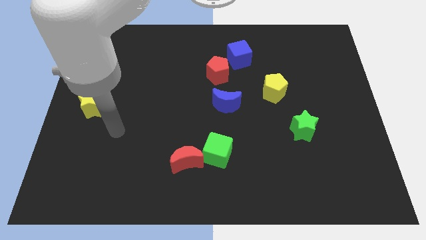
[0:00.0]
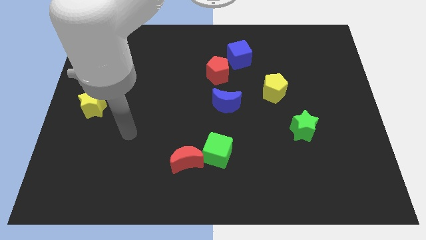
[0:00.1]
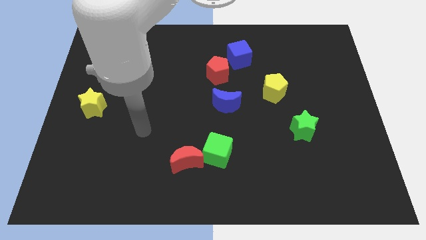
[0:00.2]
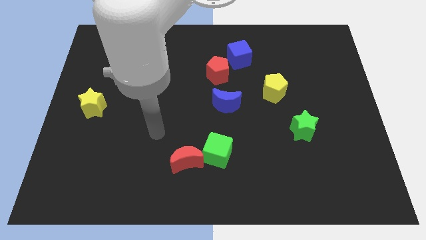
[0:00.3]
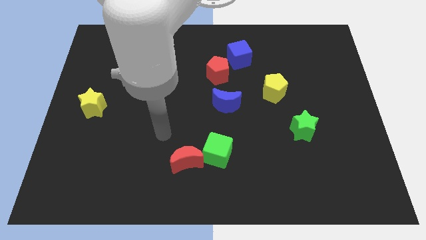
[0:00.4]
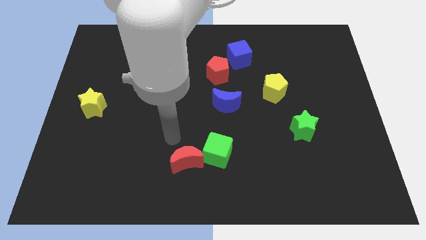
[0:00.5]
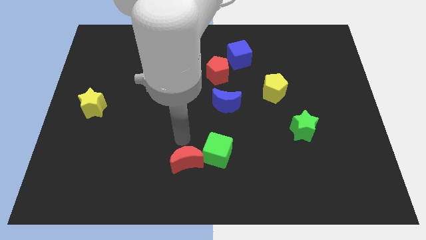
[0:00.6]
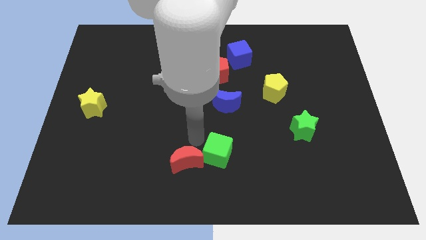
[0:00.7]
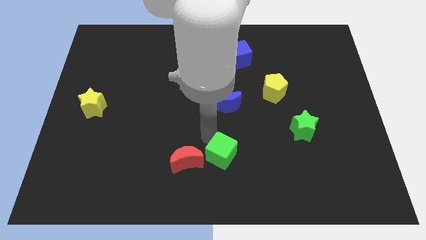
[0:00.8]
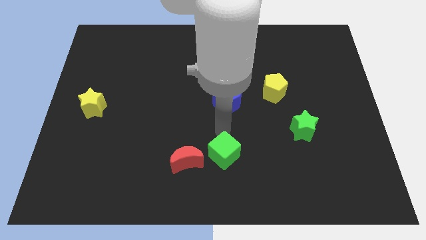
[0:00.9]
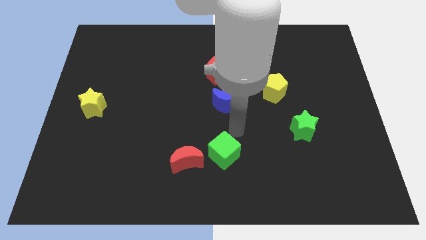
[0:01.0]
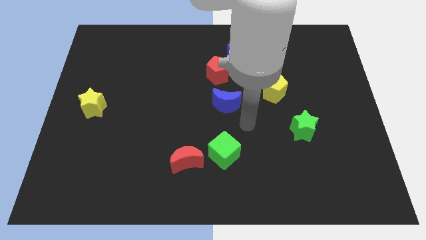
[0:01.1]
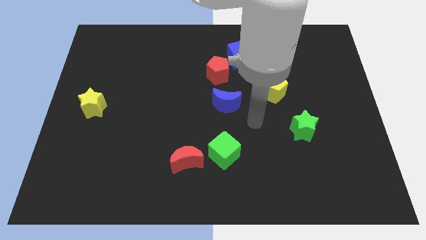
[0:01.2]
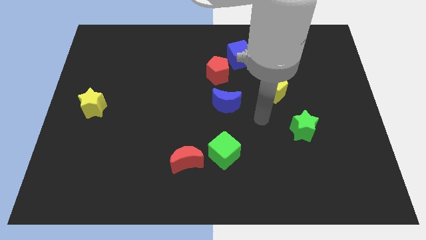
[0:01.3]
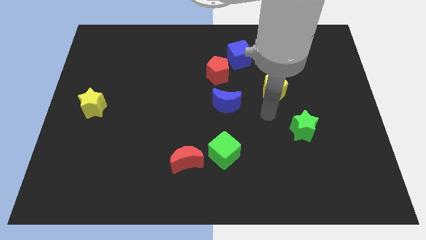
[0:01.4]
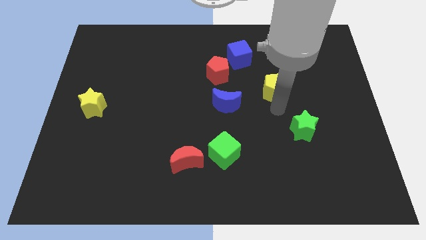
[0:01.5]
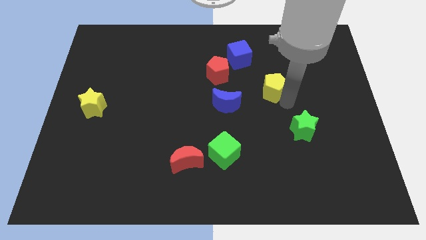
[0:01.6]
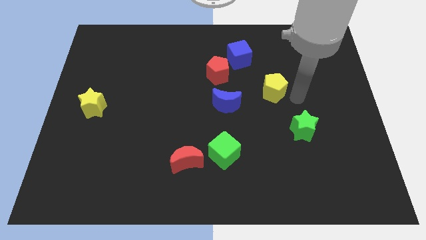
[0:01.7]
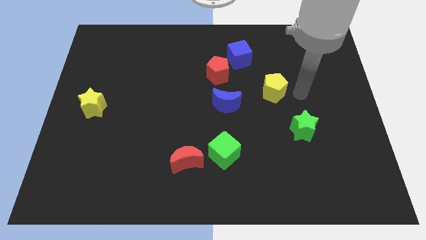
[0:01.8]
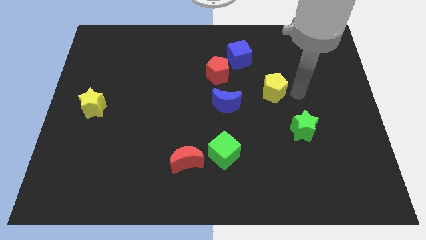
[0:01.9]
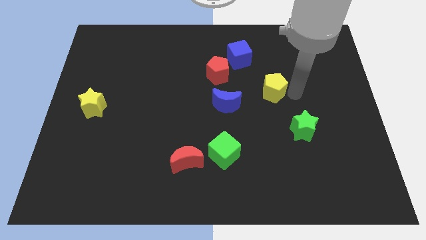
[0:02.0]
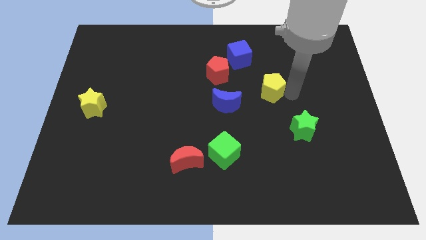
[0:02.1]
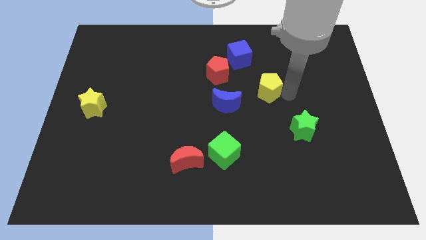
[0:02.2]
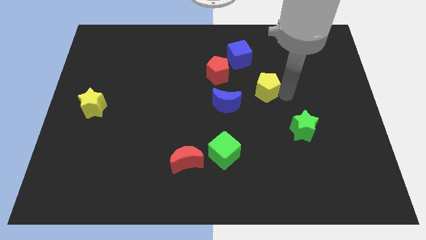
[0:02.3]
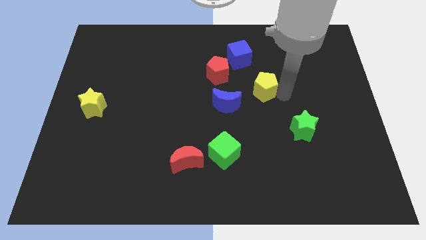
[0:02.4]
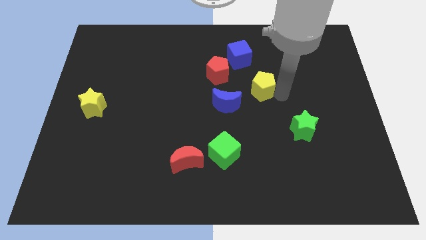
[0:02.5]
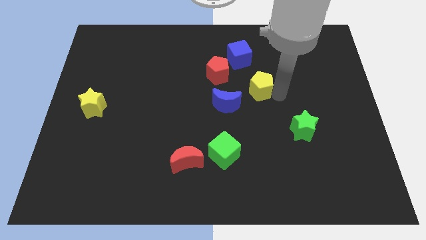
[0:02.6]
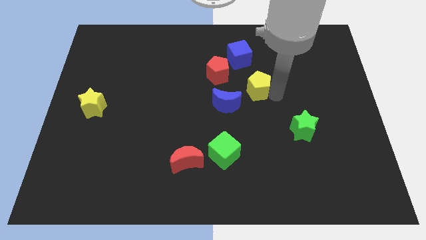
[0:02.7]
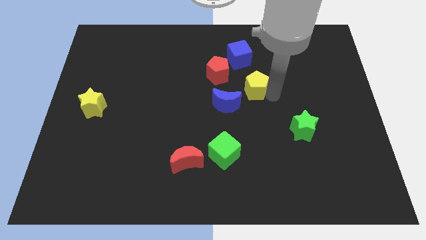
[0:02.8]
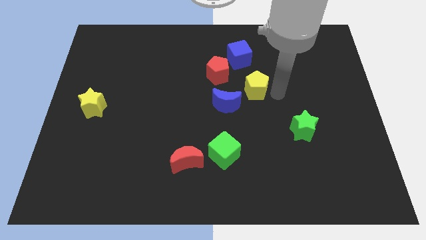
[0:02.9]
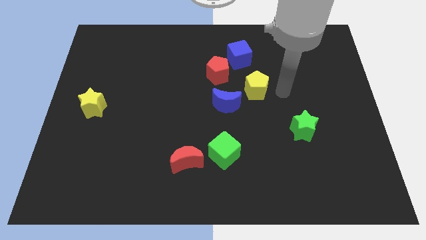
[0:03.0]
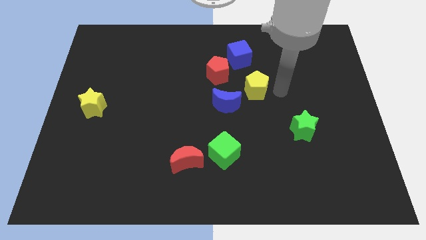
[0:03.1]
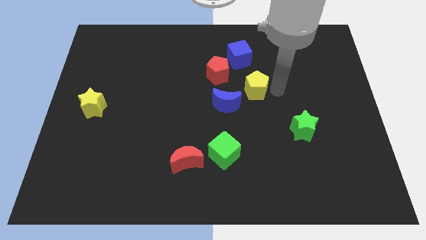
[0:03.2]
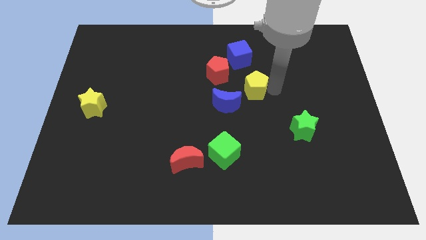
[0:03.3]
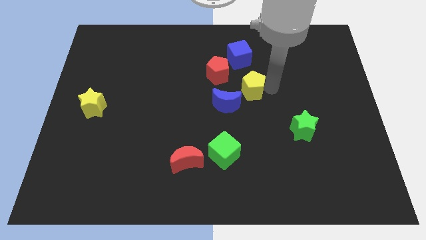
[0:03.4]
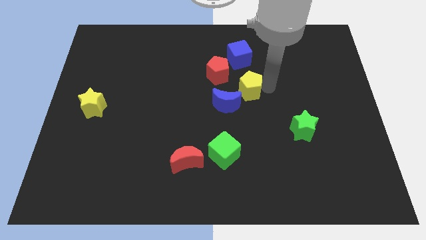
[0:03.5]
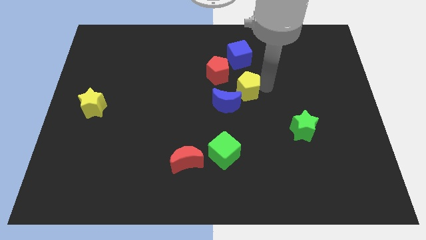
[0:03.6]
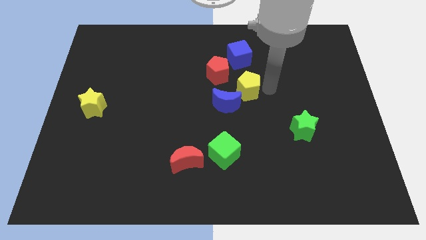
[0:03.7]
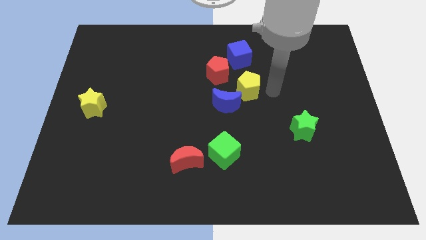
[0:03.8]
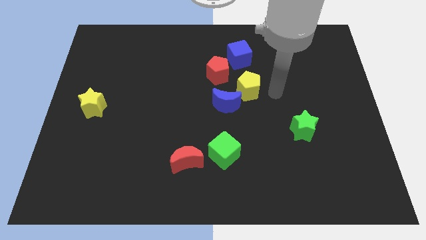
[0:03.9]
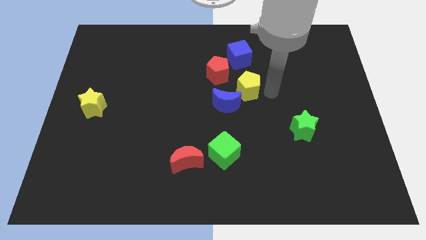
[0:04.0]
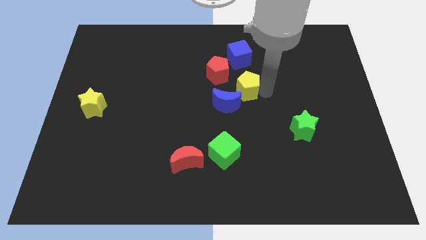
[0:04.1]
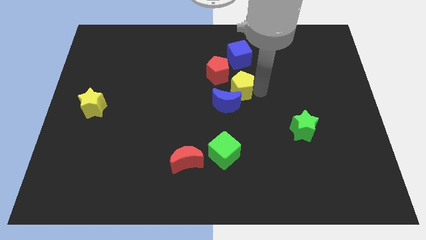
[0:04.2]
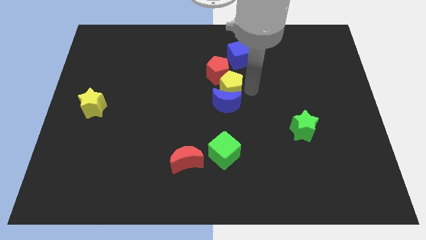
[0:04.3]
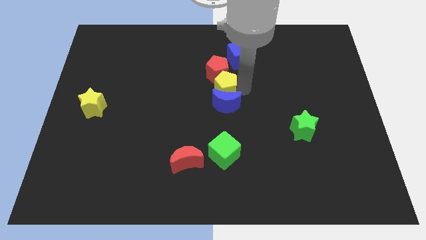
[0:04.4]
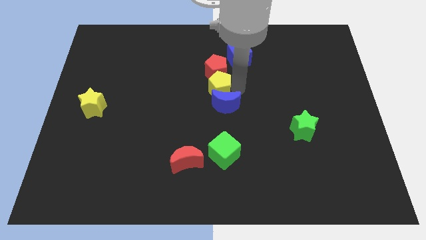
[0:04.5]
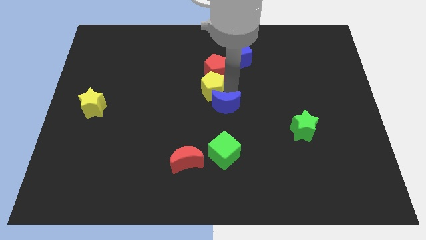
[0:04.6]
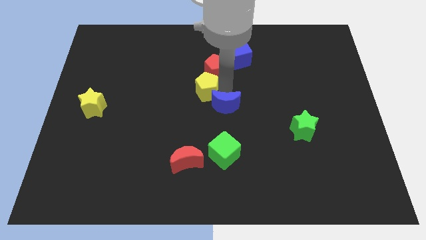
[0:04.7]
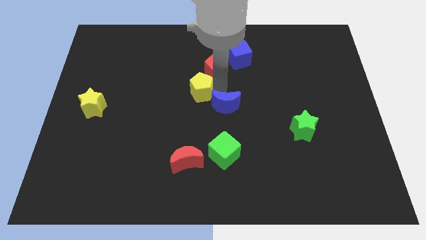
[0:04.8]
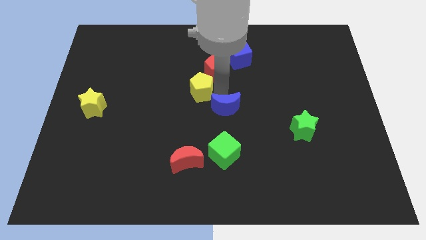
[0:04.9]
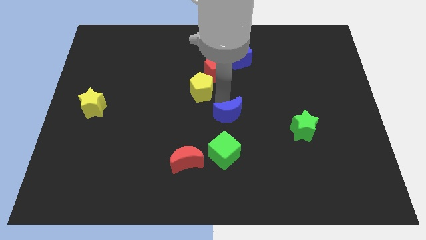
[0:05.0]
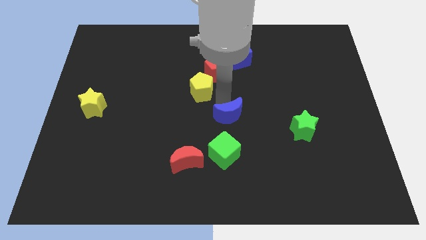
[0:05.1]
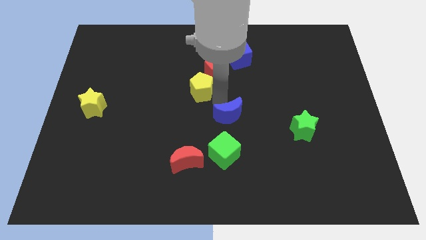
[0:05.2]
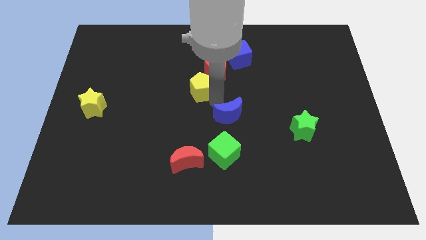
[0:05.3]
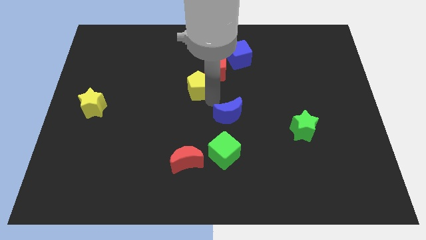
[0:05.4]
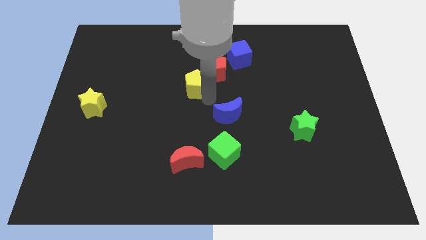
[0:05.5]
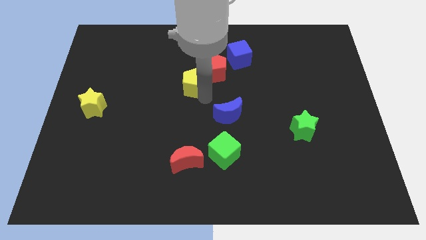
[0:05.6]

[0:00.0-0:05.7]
slide the yellow pentagon left of the red pentagon
